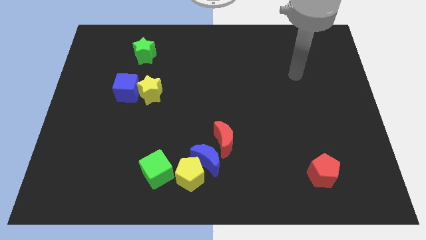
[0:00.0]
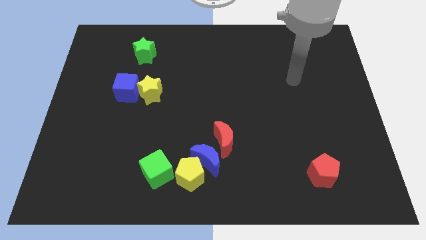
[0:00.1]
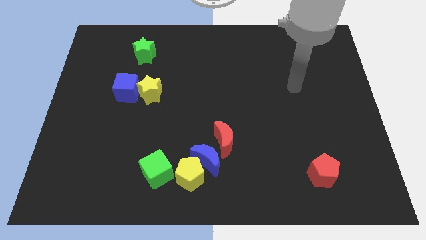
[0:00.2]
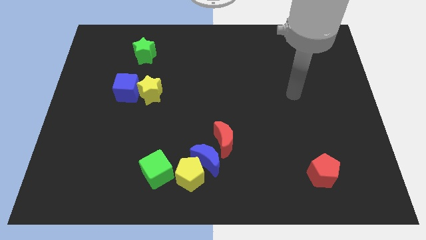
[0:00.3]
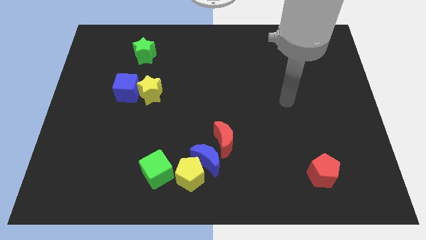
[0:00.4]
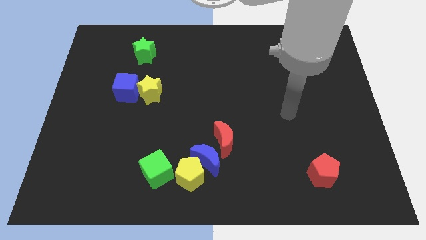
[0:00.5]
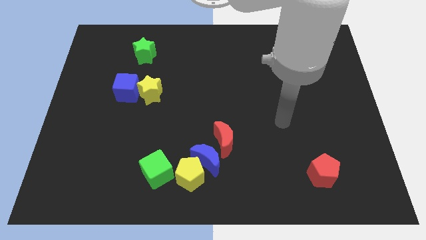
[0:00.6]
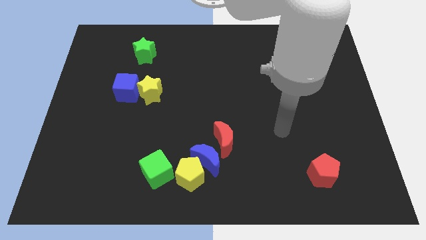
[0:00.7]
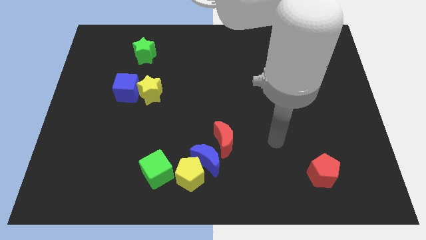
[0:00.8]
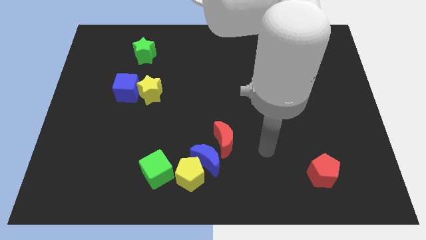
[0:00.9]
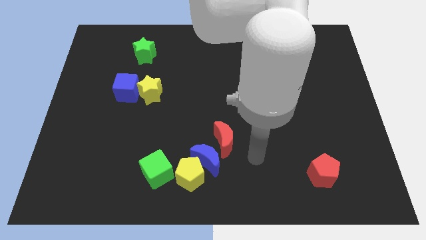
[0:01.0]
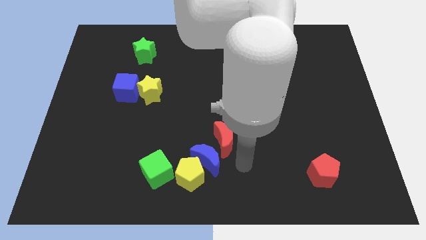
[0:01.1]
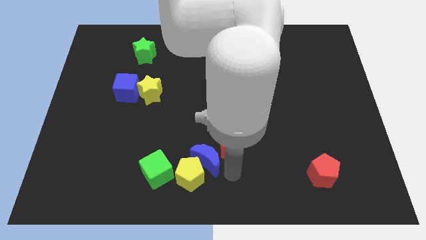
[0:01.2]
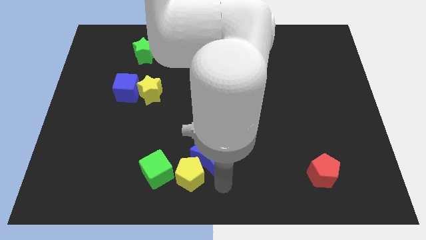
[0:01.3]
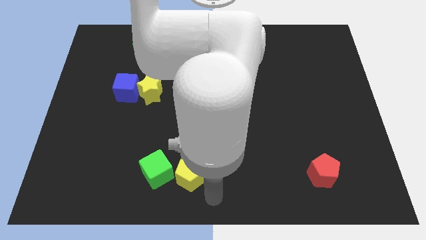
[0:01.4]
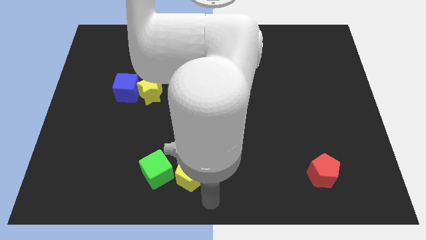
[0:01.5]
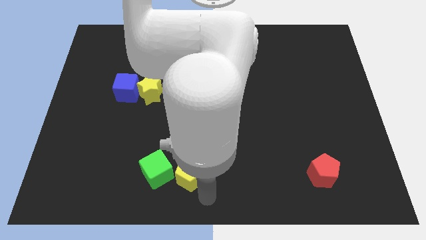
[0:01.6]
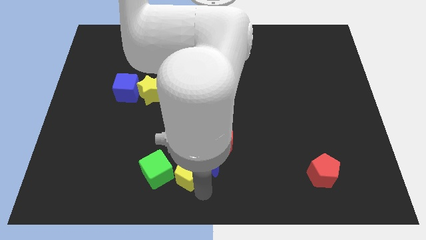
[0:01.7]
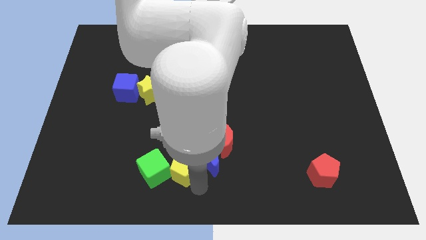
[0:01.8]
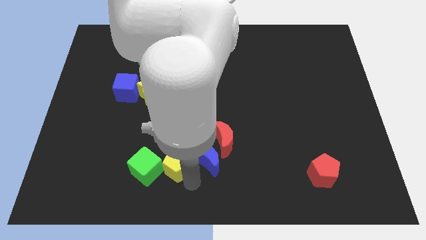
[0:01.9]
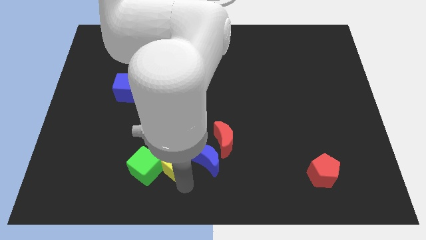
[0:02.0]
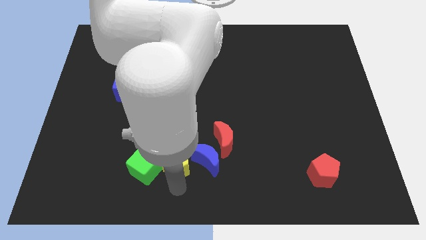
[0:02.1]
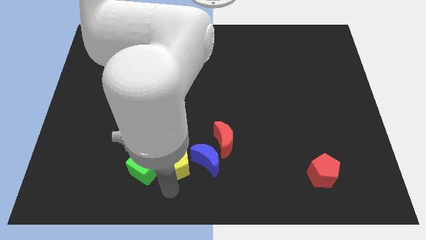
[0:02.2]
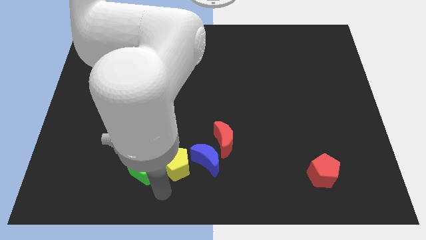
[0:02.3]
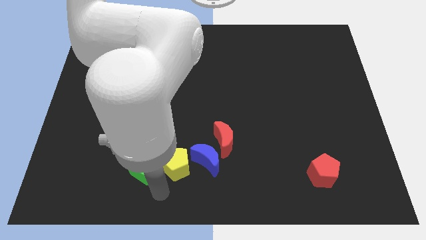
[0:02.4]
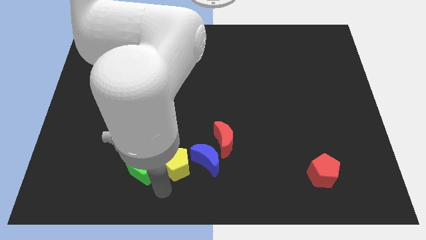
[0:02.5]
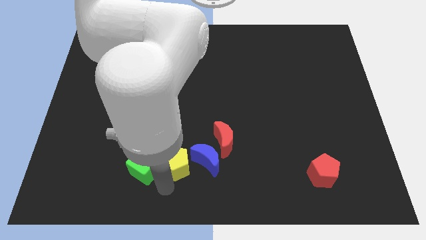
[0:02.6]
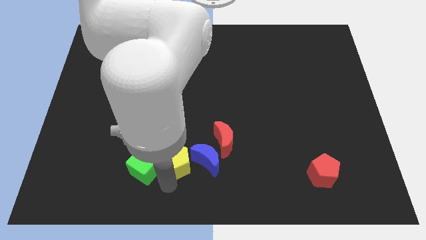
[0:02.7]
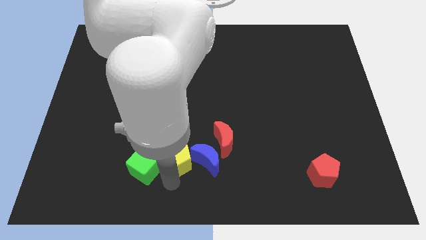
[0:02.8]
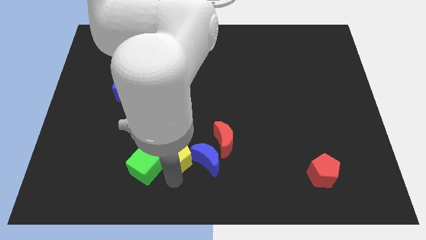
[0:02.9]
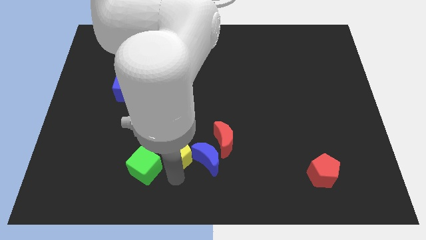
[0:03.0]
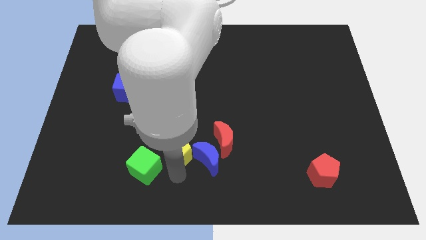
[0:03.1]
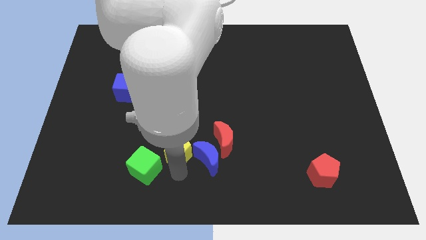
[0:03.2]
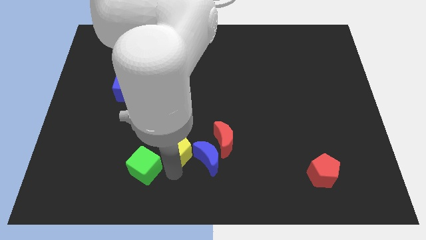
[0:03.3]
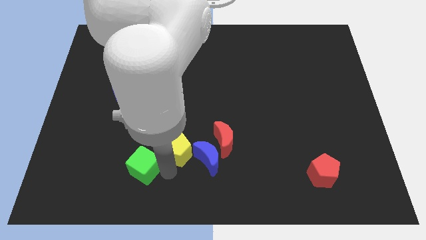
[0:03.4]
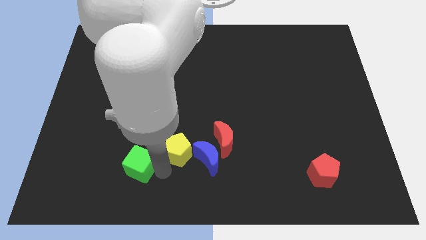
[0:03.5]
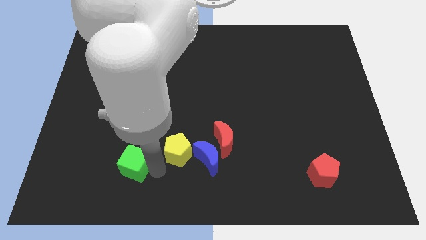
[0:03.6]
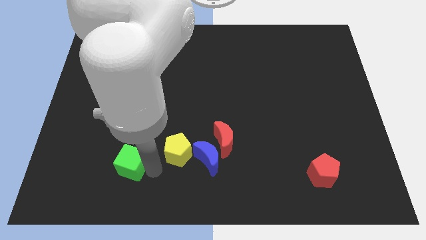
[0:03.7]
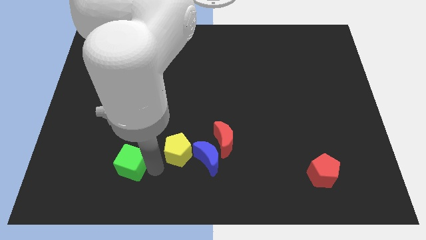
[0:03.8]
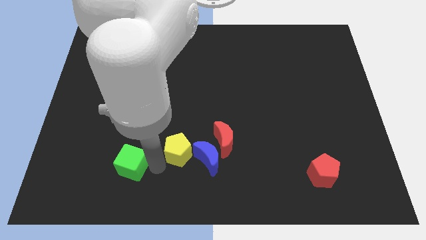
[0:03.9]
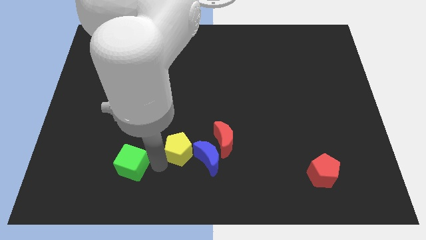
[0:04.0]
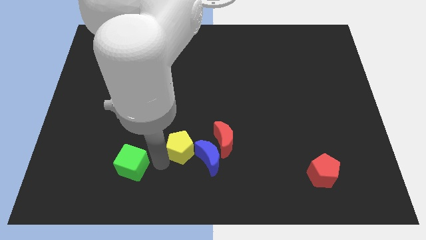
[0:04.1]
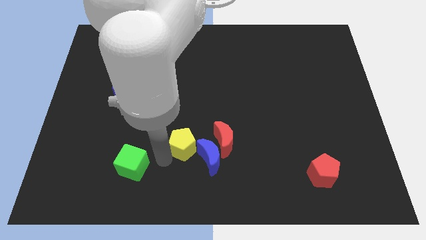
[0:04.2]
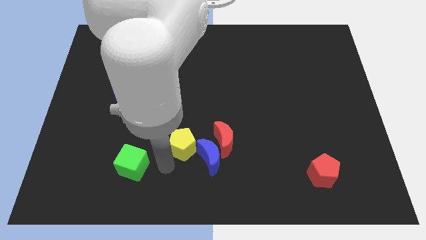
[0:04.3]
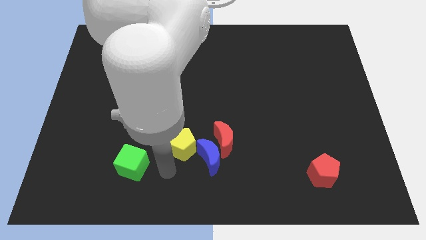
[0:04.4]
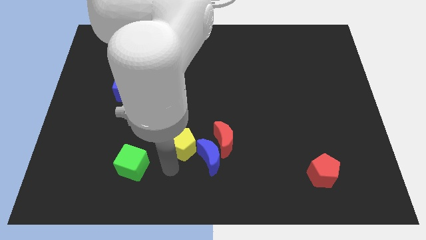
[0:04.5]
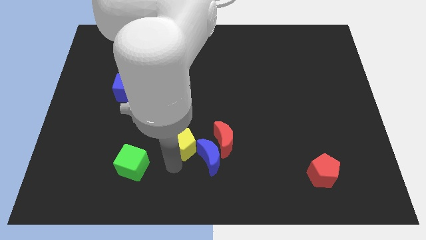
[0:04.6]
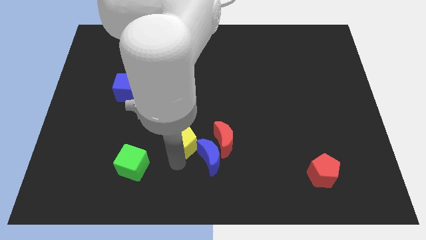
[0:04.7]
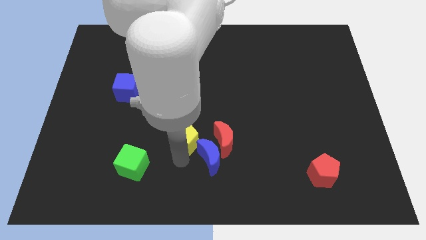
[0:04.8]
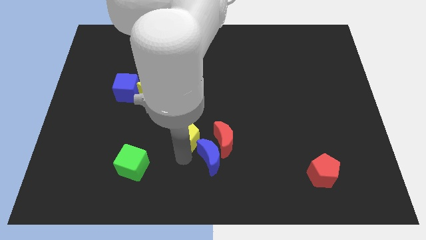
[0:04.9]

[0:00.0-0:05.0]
slide the yellow pentagon to the middle

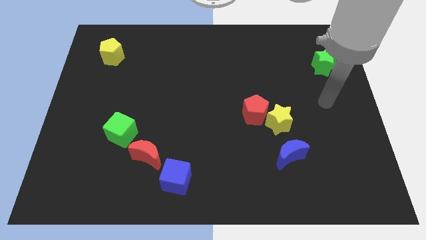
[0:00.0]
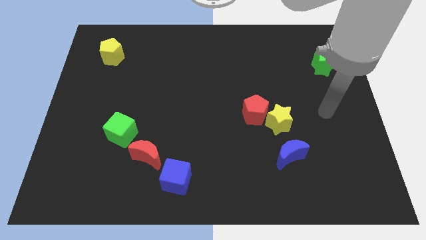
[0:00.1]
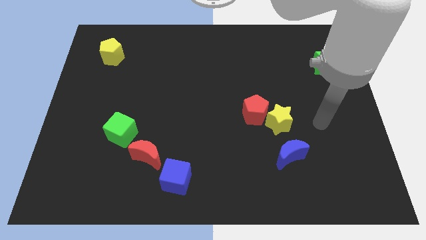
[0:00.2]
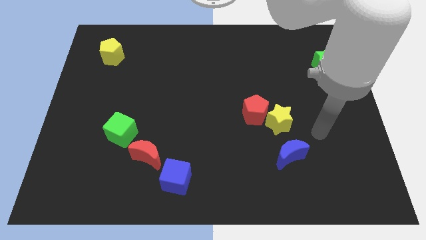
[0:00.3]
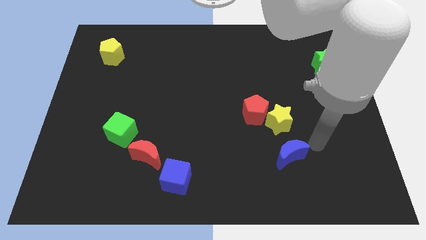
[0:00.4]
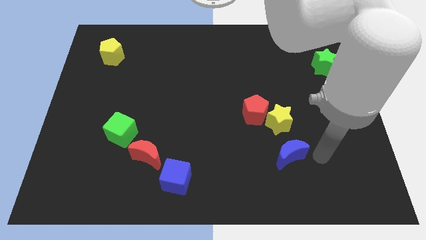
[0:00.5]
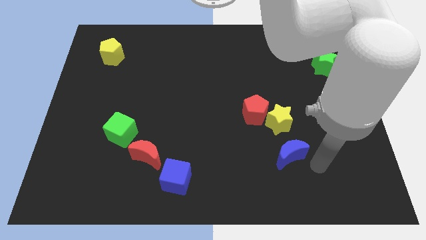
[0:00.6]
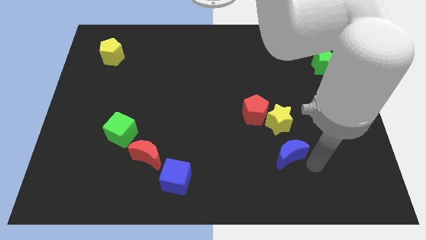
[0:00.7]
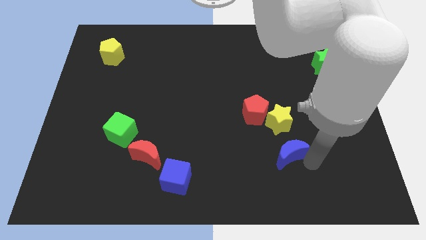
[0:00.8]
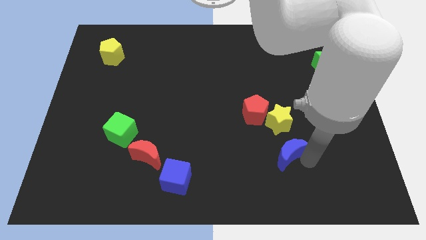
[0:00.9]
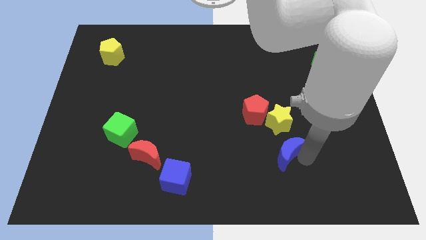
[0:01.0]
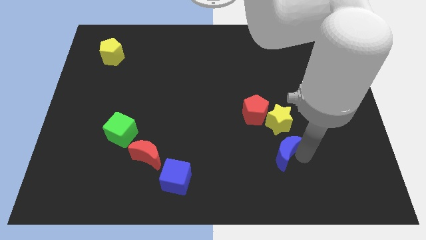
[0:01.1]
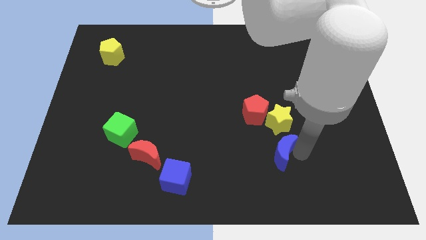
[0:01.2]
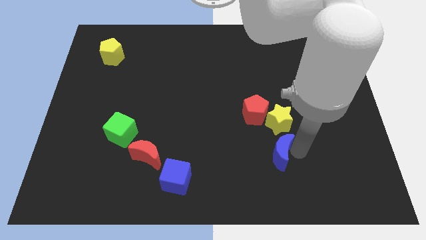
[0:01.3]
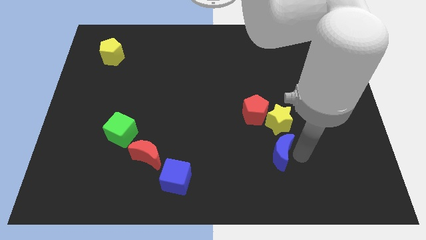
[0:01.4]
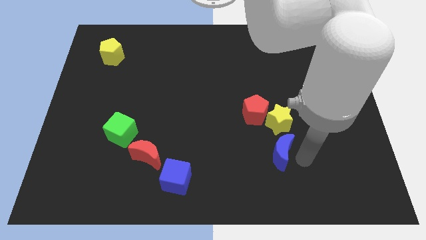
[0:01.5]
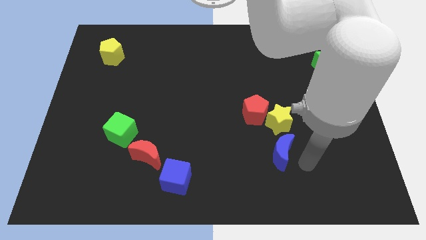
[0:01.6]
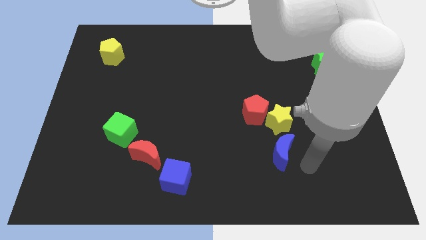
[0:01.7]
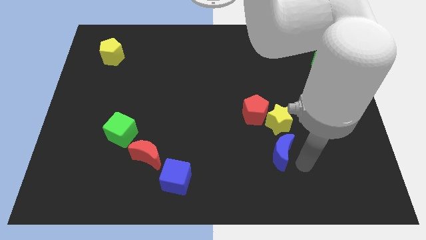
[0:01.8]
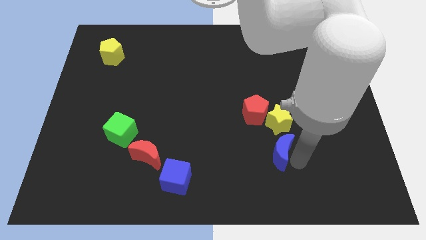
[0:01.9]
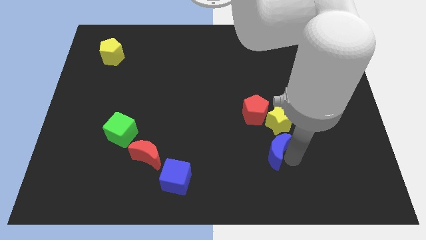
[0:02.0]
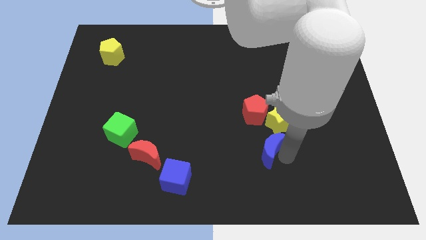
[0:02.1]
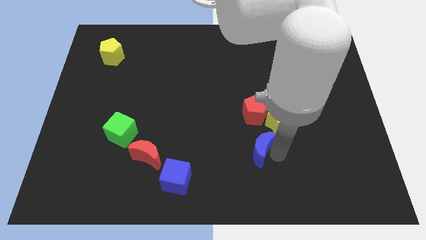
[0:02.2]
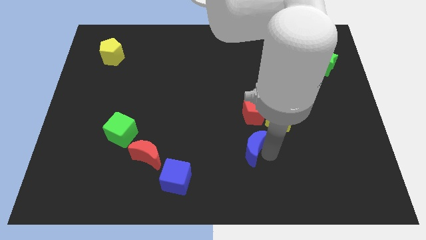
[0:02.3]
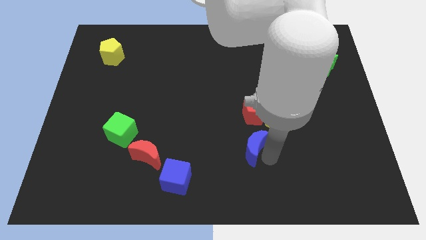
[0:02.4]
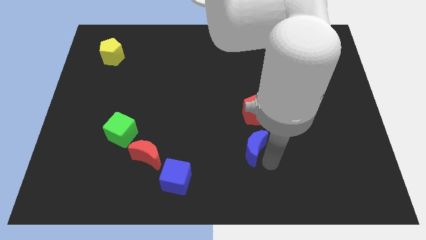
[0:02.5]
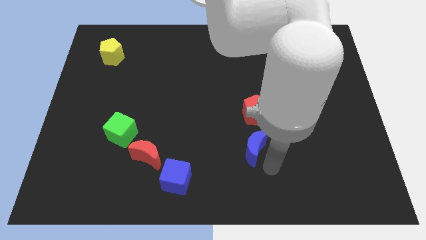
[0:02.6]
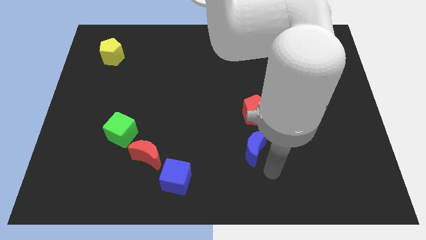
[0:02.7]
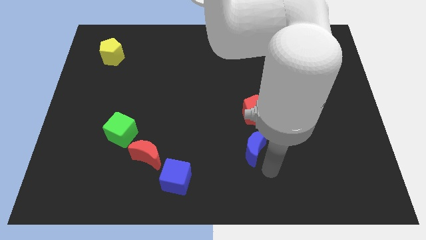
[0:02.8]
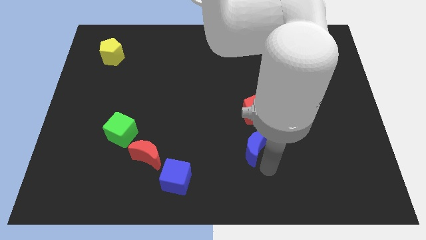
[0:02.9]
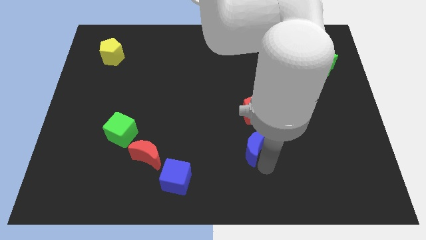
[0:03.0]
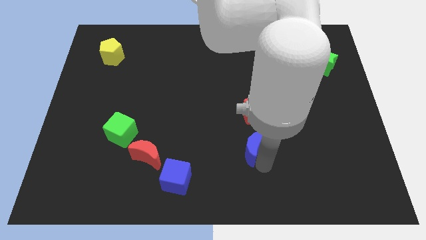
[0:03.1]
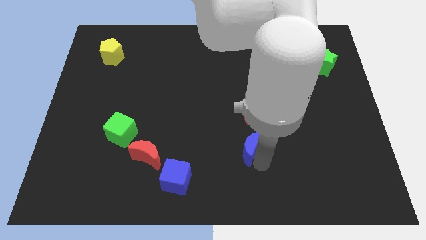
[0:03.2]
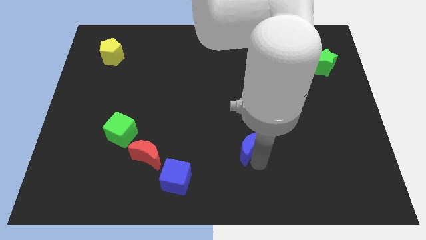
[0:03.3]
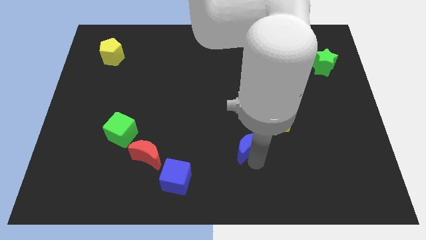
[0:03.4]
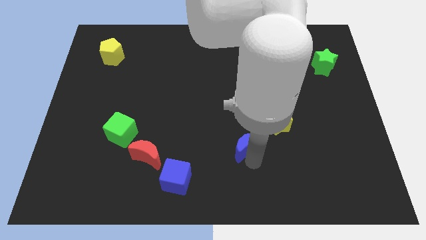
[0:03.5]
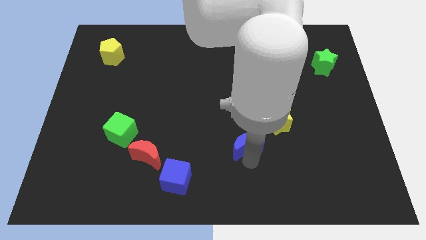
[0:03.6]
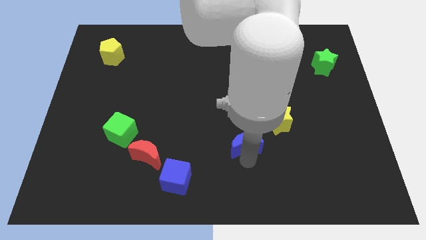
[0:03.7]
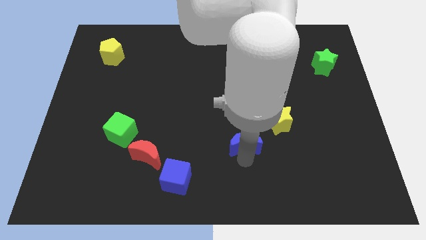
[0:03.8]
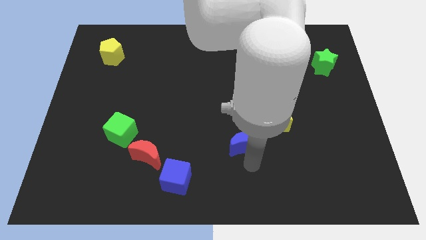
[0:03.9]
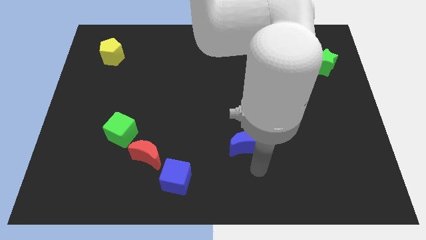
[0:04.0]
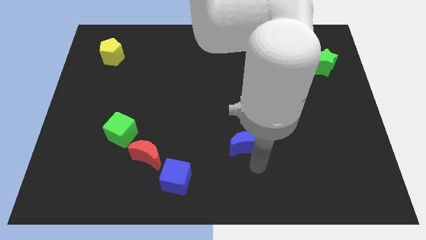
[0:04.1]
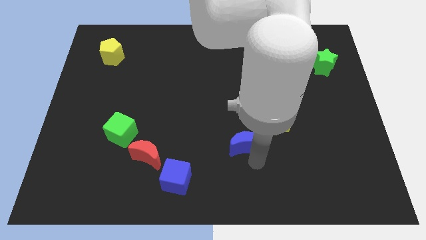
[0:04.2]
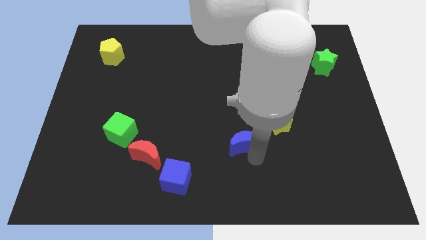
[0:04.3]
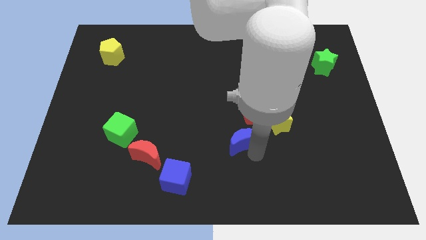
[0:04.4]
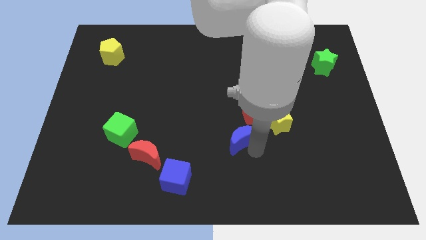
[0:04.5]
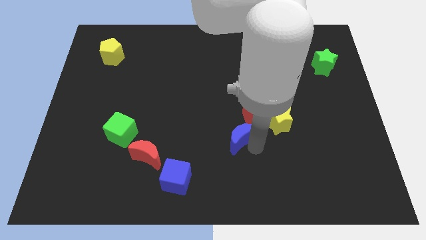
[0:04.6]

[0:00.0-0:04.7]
move the blue moon to the center of the board
